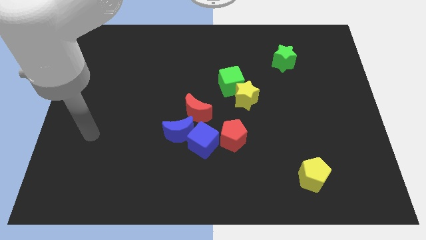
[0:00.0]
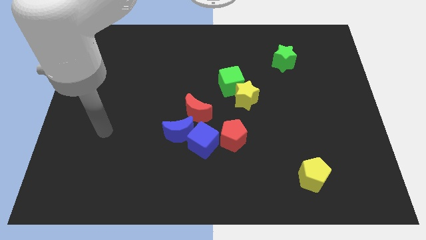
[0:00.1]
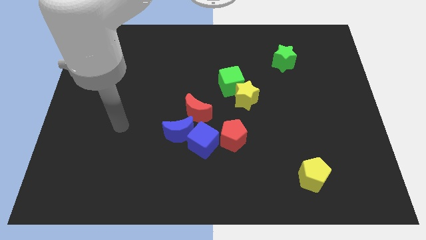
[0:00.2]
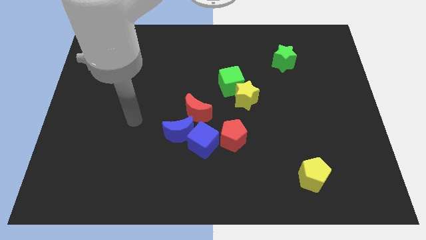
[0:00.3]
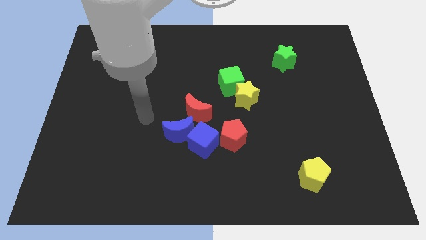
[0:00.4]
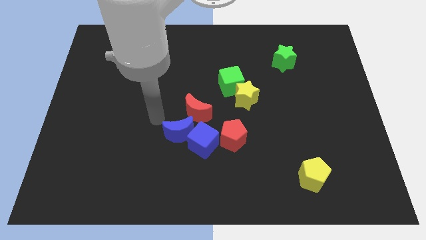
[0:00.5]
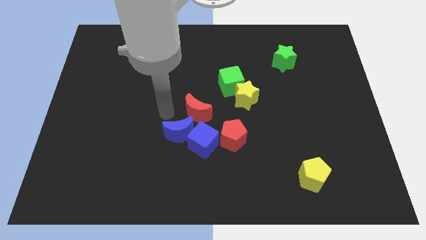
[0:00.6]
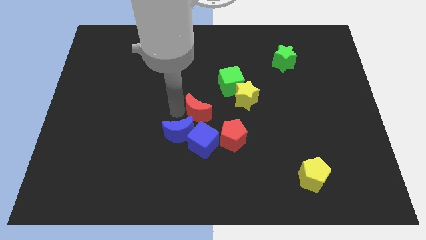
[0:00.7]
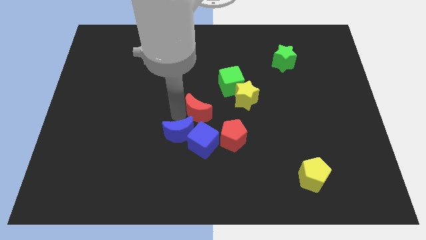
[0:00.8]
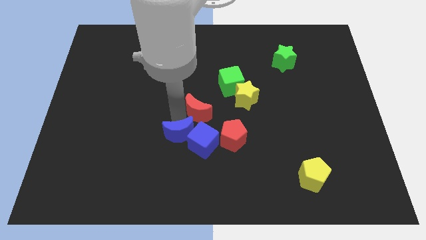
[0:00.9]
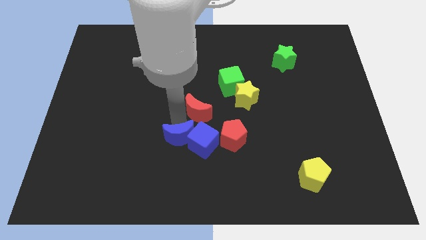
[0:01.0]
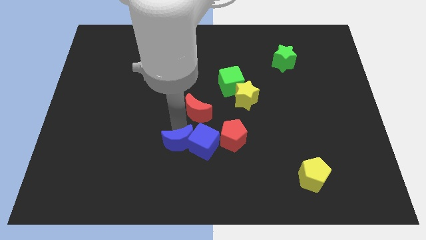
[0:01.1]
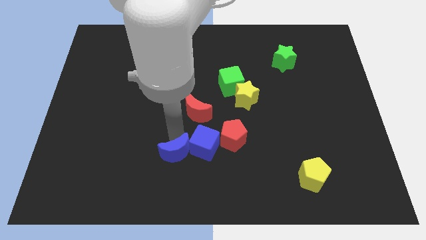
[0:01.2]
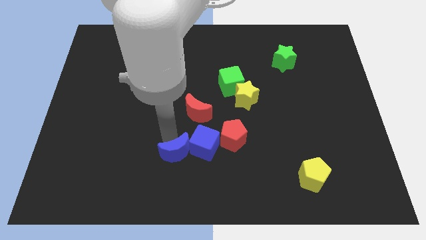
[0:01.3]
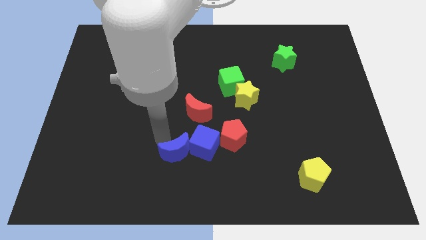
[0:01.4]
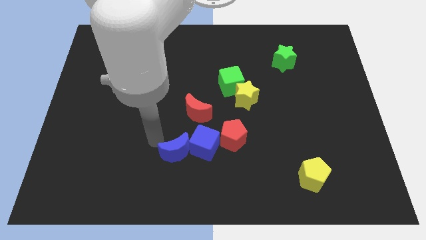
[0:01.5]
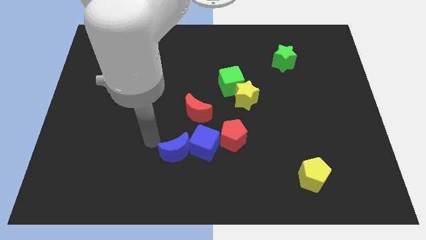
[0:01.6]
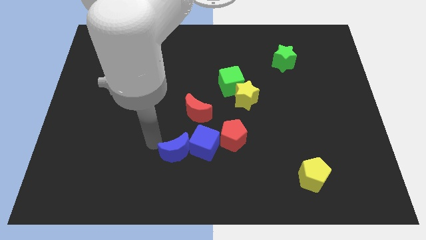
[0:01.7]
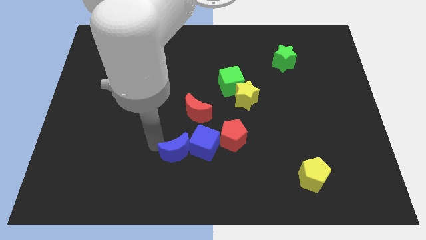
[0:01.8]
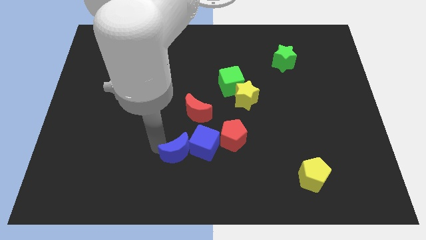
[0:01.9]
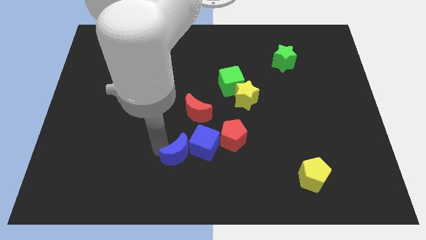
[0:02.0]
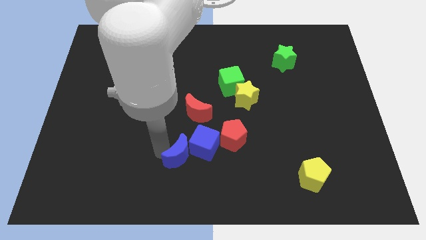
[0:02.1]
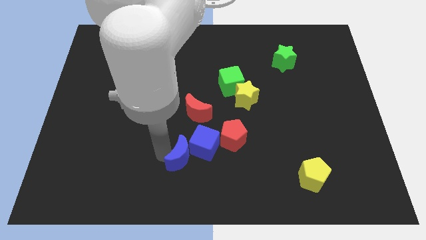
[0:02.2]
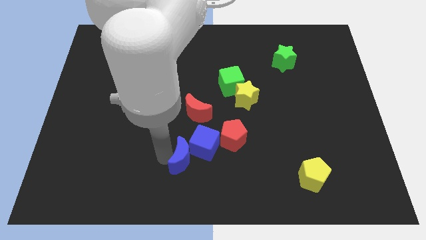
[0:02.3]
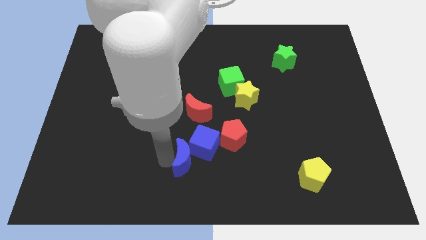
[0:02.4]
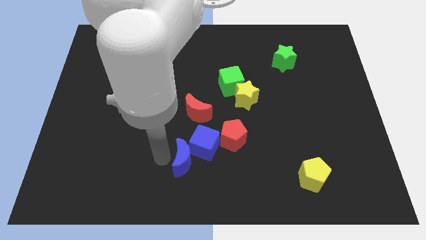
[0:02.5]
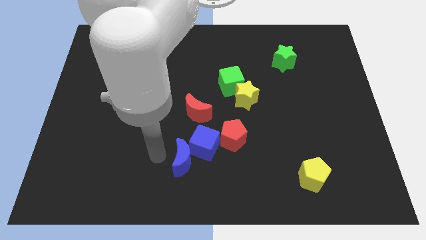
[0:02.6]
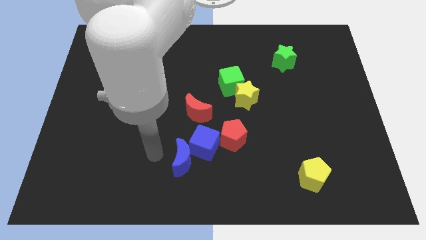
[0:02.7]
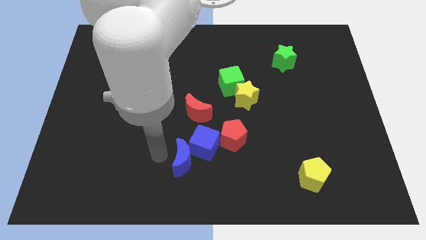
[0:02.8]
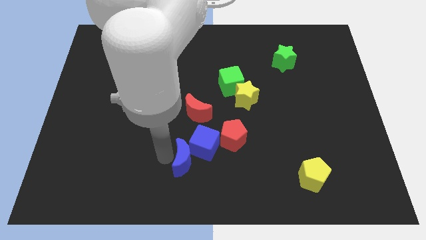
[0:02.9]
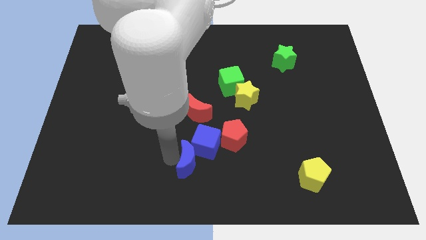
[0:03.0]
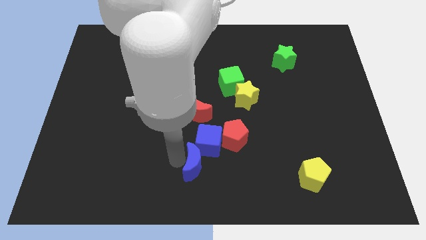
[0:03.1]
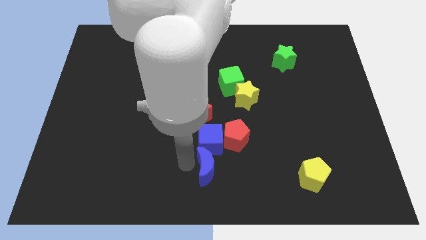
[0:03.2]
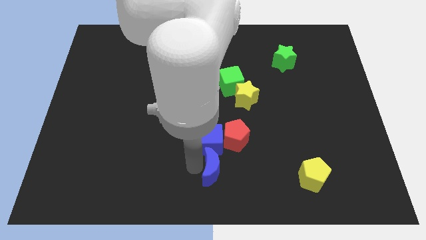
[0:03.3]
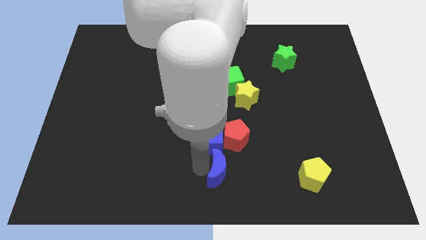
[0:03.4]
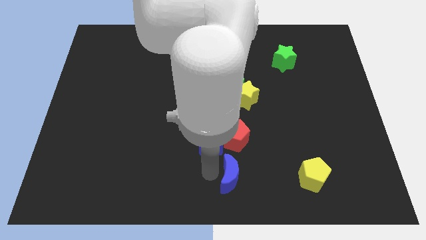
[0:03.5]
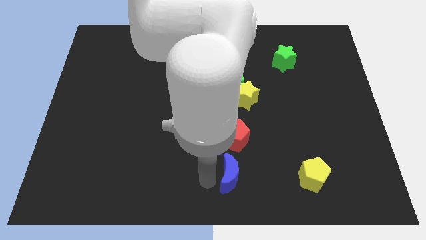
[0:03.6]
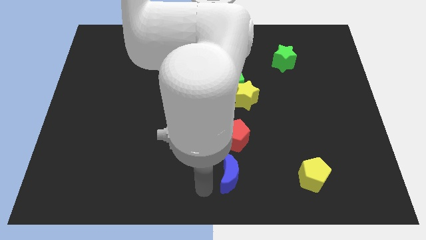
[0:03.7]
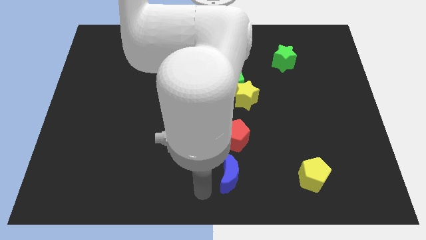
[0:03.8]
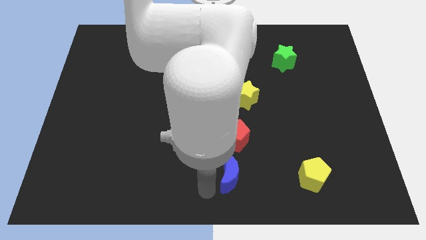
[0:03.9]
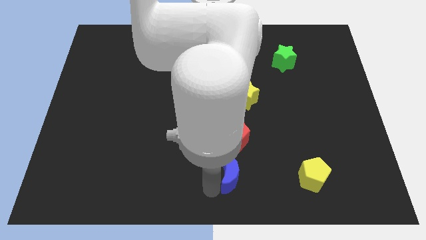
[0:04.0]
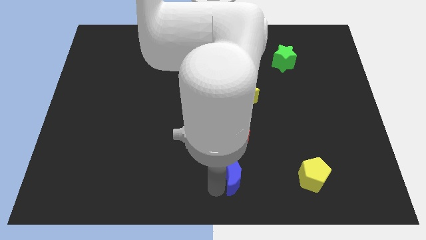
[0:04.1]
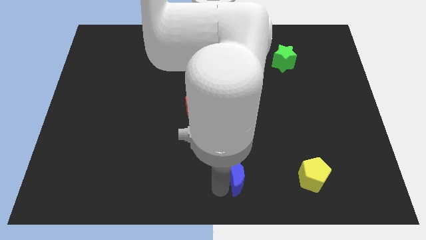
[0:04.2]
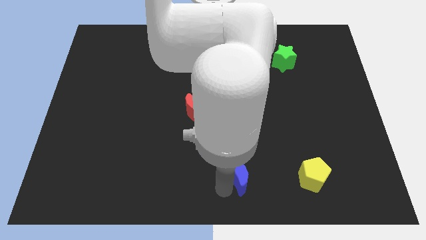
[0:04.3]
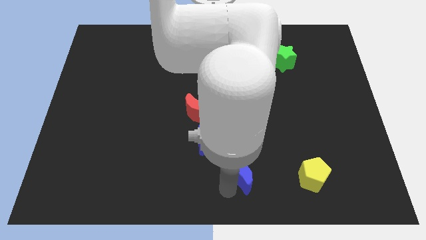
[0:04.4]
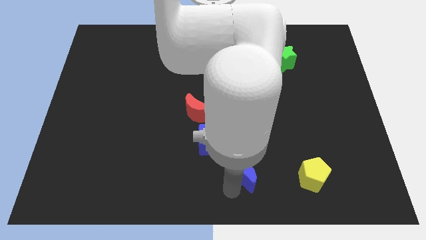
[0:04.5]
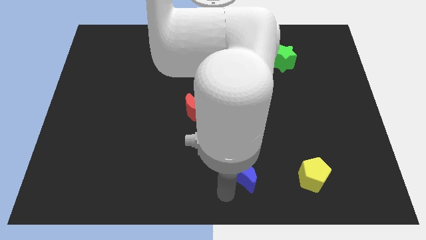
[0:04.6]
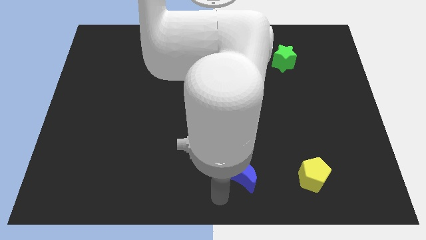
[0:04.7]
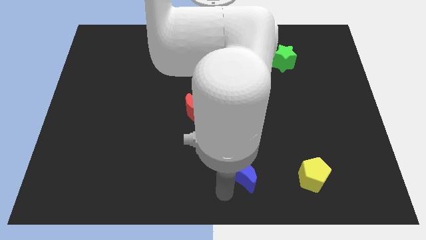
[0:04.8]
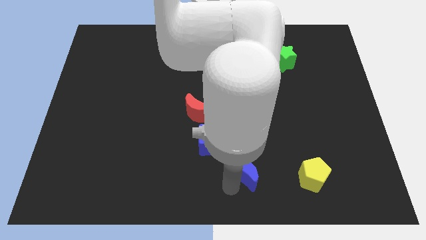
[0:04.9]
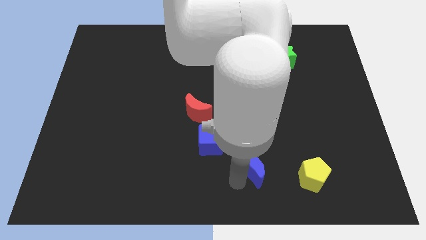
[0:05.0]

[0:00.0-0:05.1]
put the blue moon diagonally down and to the right of the red pentagon

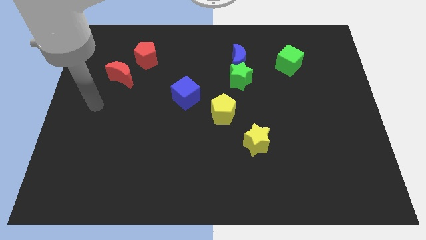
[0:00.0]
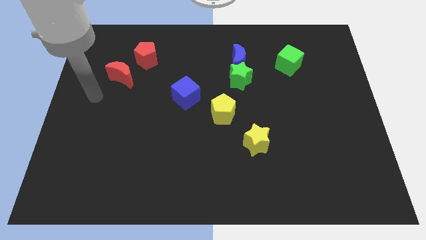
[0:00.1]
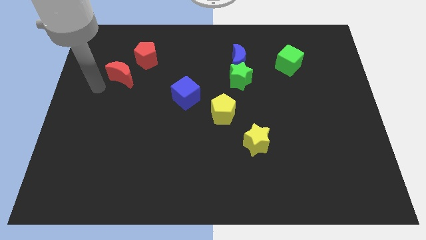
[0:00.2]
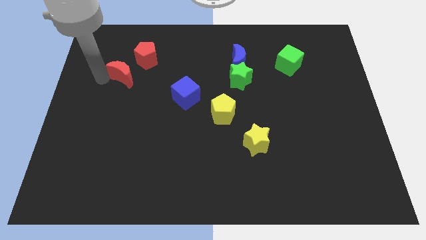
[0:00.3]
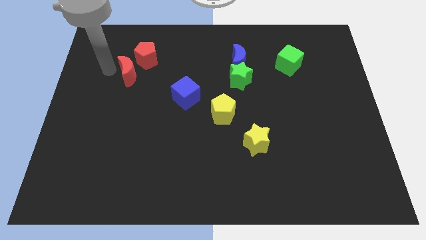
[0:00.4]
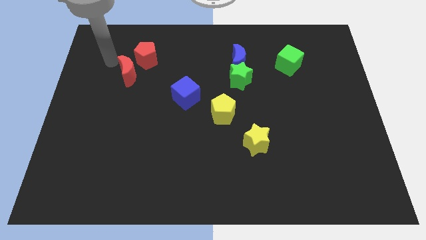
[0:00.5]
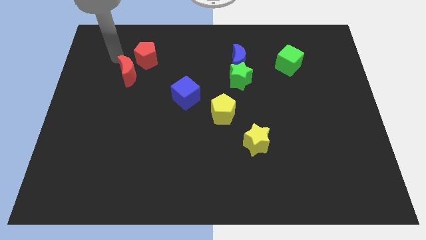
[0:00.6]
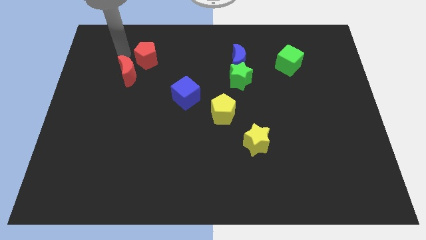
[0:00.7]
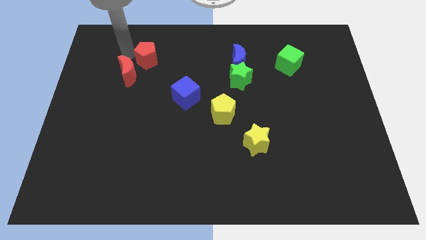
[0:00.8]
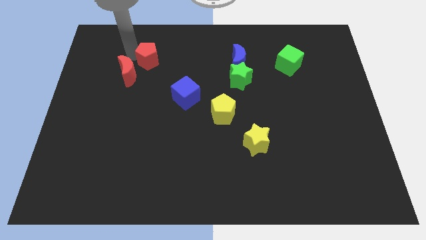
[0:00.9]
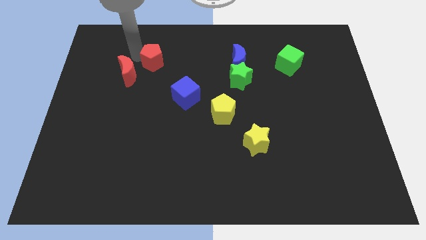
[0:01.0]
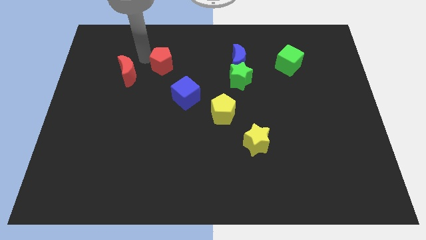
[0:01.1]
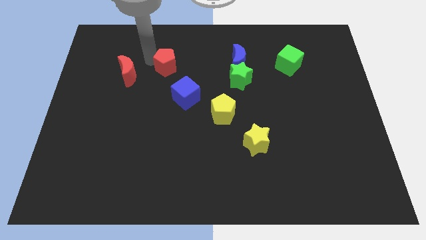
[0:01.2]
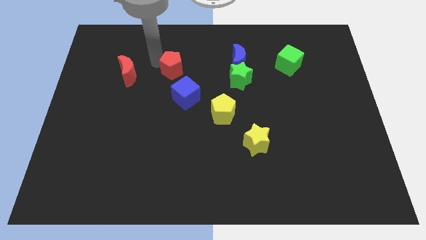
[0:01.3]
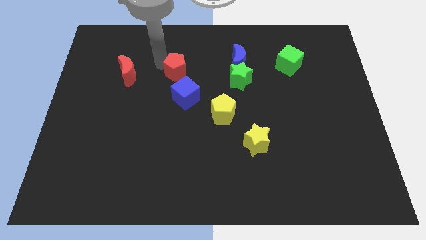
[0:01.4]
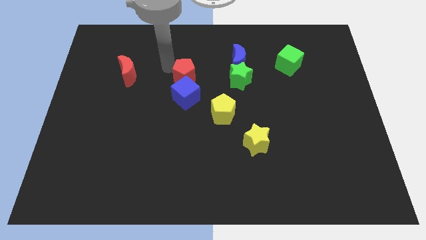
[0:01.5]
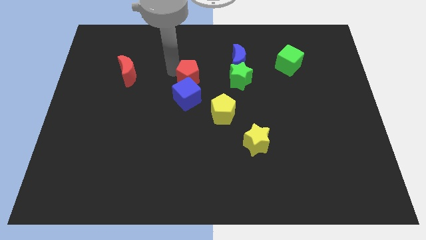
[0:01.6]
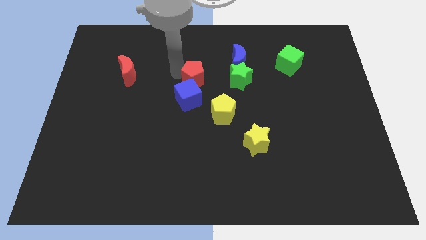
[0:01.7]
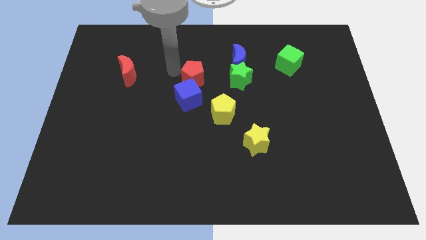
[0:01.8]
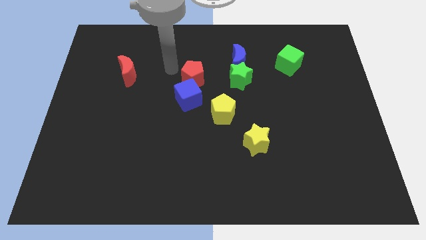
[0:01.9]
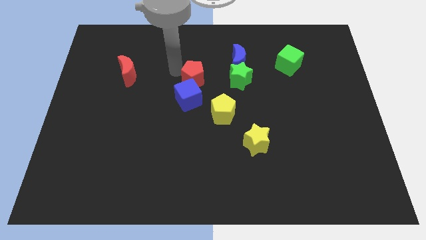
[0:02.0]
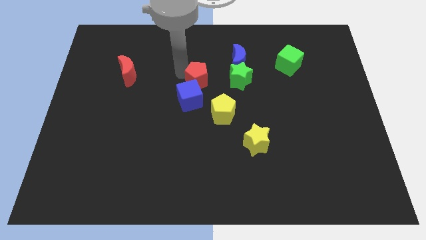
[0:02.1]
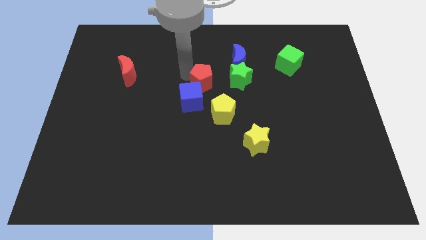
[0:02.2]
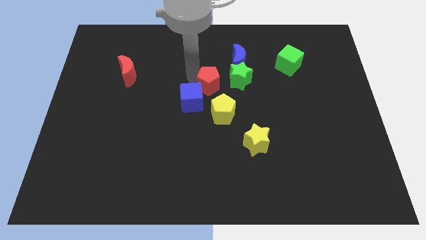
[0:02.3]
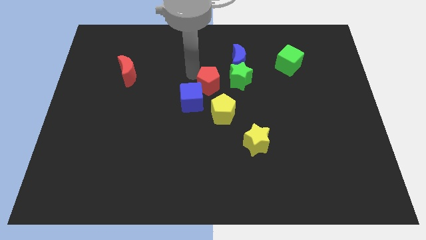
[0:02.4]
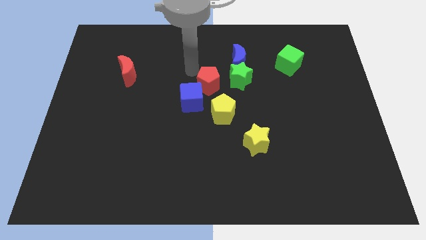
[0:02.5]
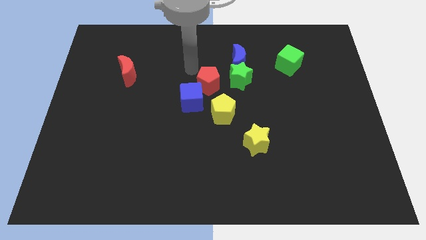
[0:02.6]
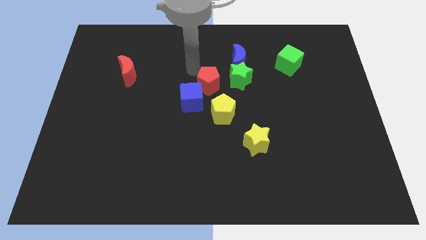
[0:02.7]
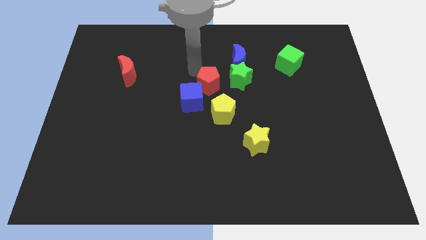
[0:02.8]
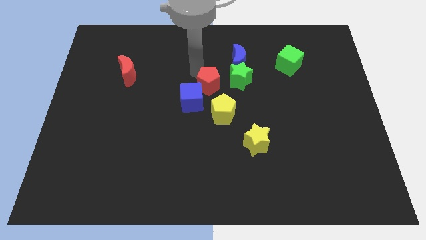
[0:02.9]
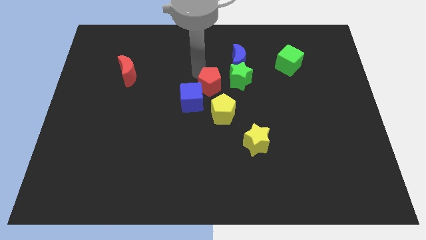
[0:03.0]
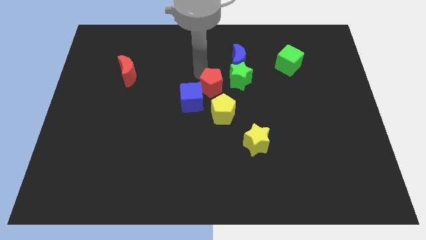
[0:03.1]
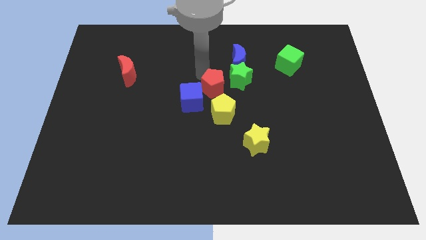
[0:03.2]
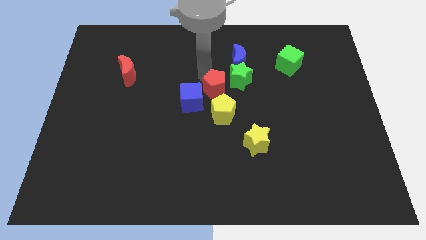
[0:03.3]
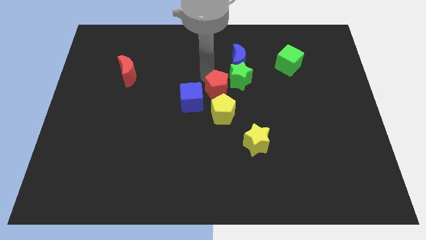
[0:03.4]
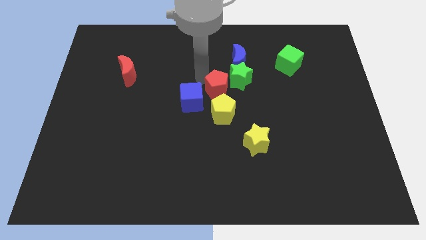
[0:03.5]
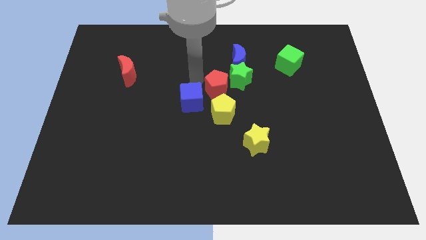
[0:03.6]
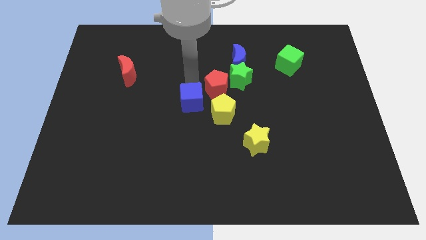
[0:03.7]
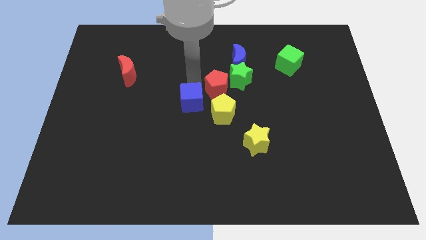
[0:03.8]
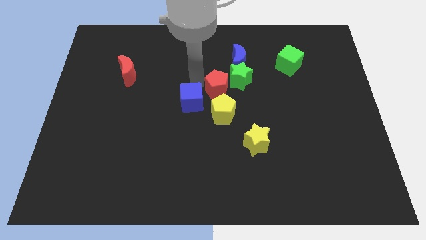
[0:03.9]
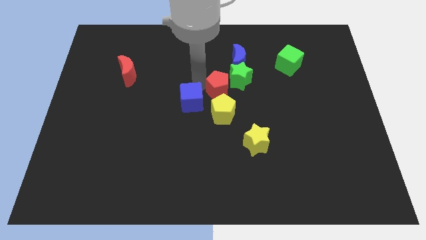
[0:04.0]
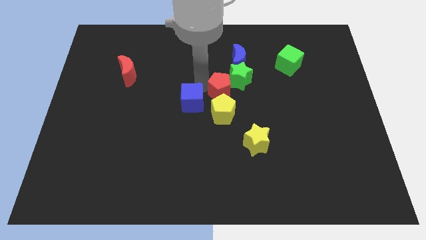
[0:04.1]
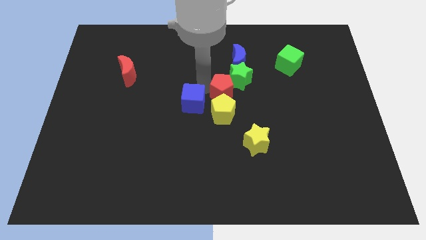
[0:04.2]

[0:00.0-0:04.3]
slide the red pentagon to the bottom side of the blue moon
